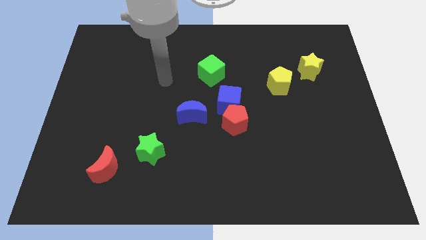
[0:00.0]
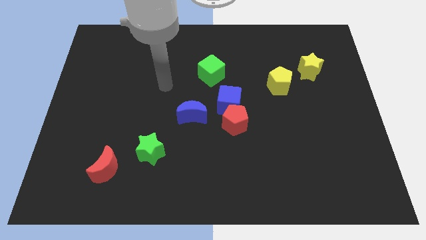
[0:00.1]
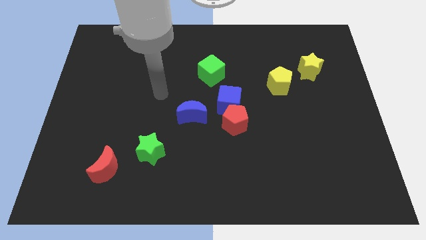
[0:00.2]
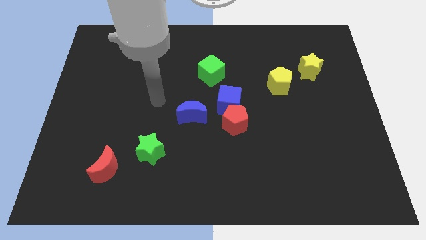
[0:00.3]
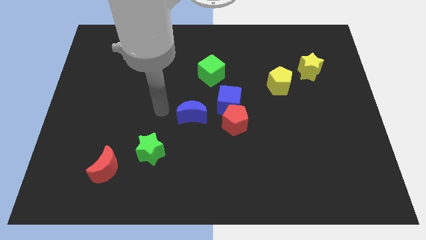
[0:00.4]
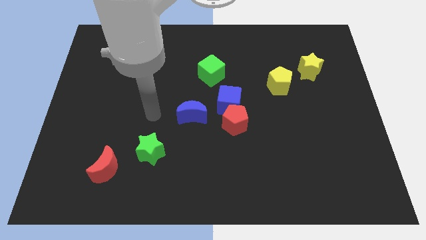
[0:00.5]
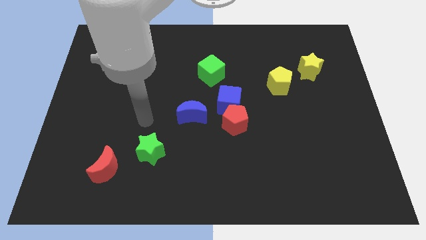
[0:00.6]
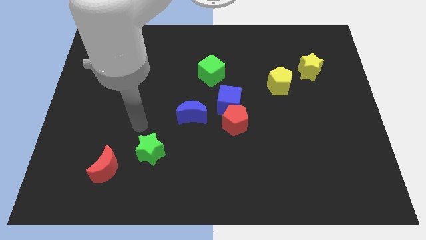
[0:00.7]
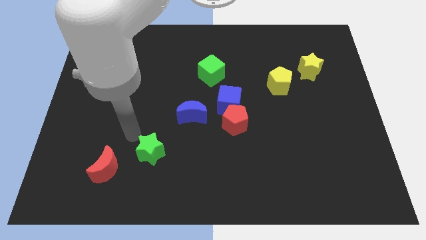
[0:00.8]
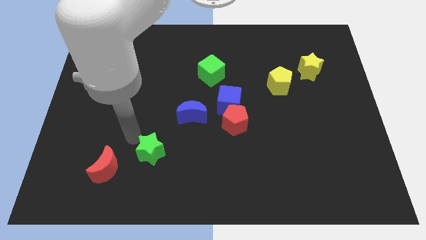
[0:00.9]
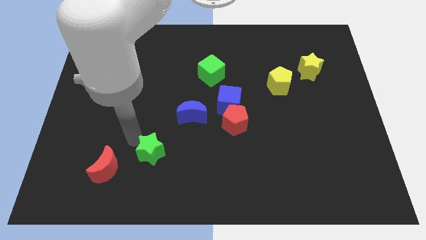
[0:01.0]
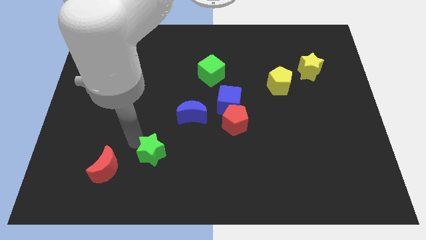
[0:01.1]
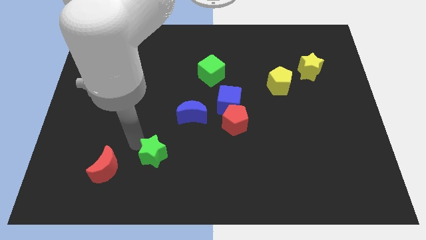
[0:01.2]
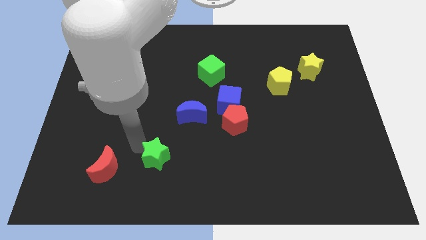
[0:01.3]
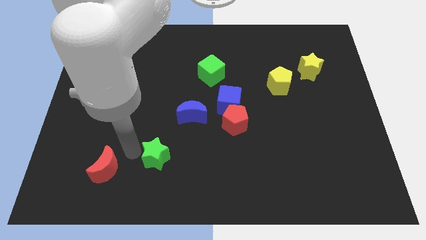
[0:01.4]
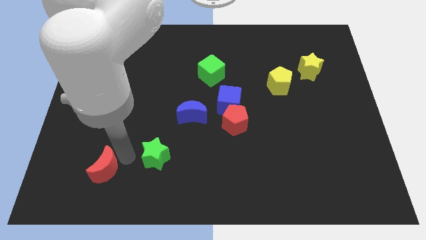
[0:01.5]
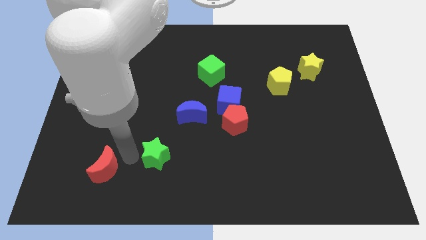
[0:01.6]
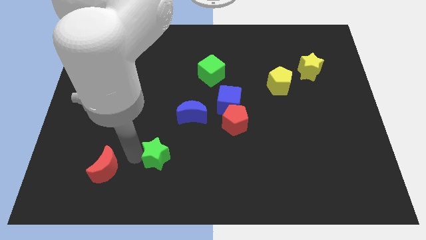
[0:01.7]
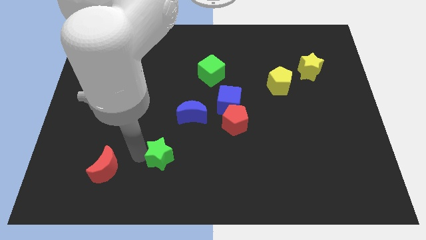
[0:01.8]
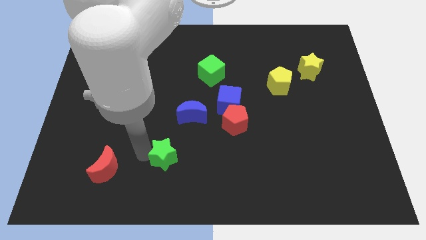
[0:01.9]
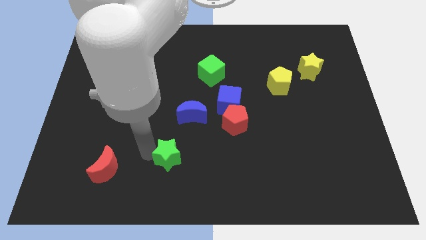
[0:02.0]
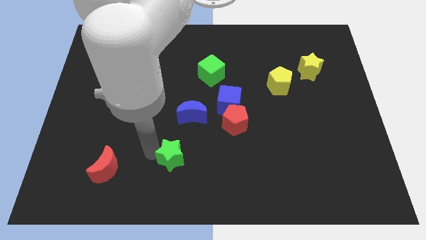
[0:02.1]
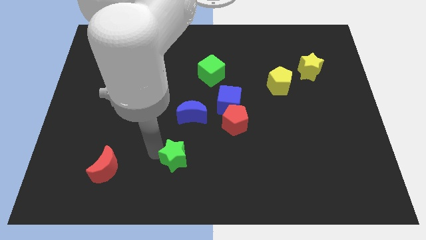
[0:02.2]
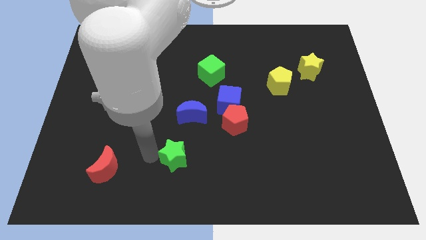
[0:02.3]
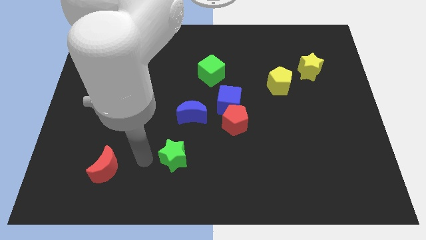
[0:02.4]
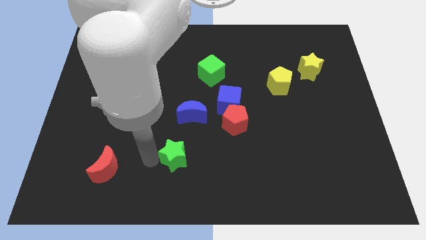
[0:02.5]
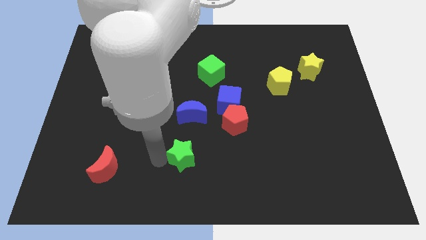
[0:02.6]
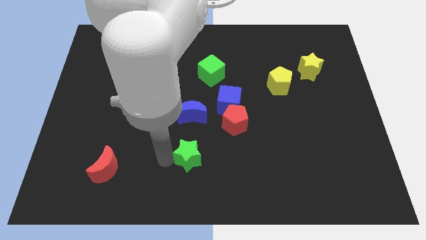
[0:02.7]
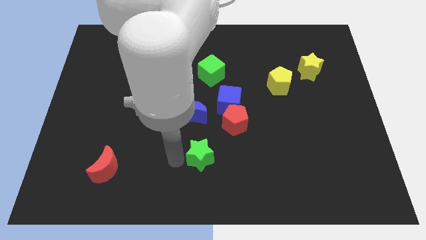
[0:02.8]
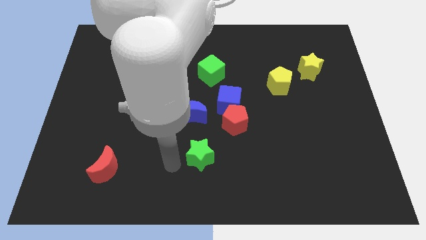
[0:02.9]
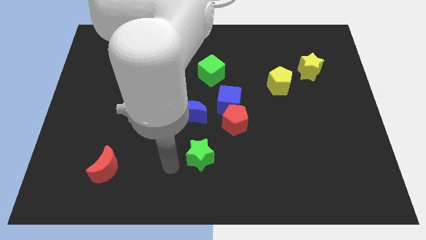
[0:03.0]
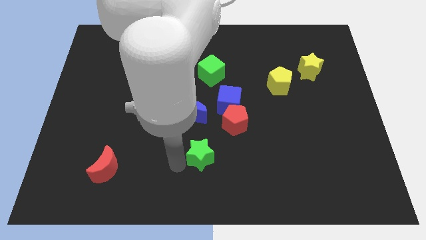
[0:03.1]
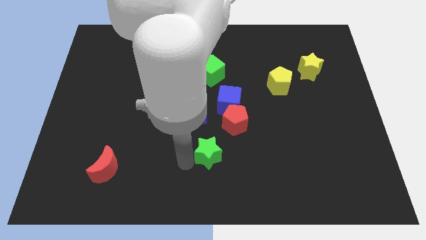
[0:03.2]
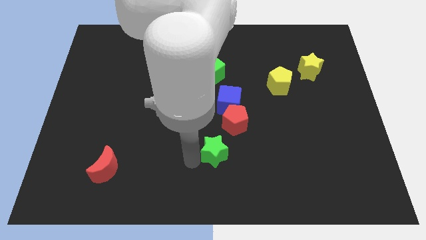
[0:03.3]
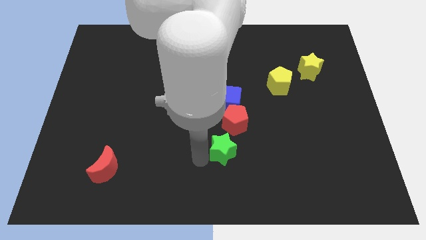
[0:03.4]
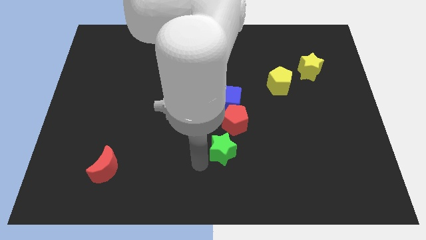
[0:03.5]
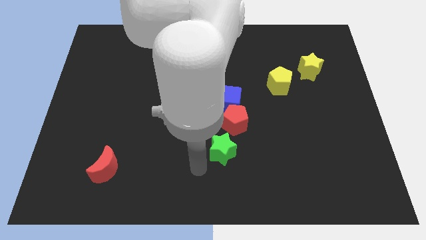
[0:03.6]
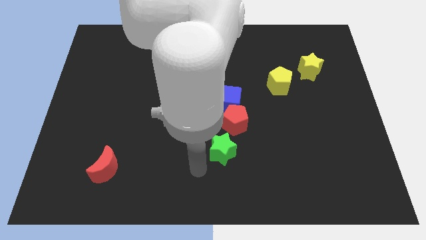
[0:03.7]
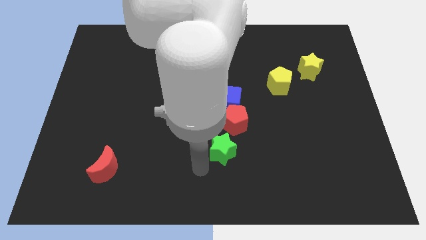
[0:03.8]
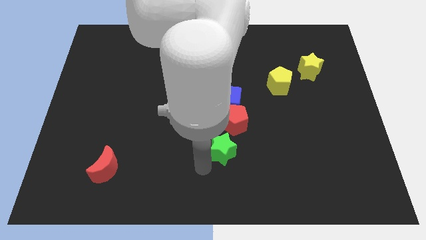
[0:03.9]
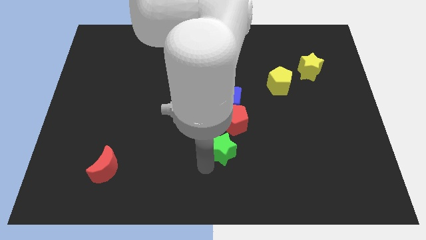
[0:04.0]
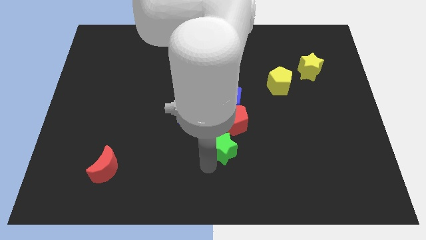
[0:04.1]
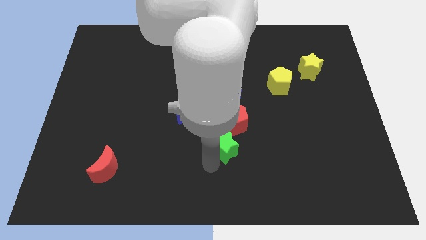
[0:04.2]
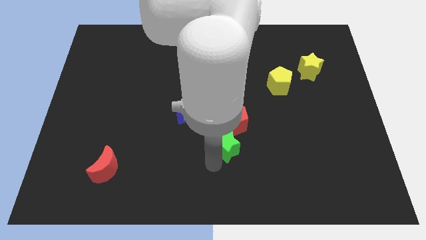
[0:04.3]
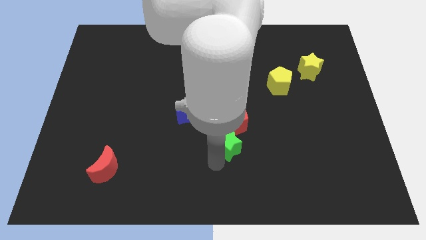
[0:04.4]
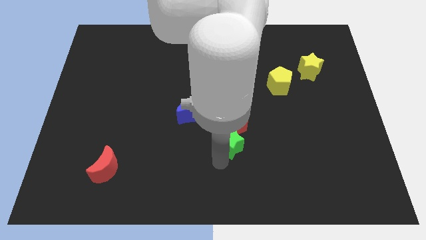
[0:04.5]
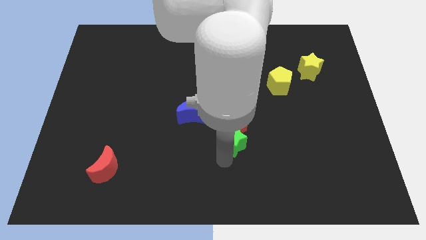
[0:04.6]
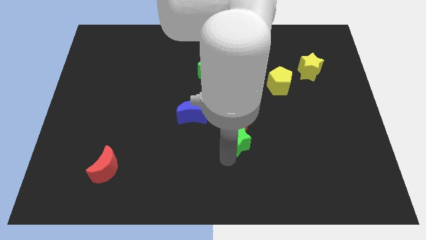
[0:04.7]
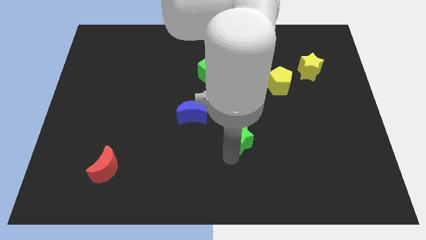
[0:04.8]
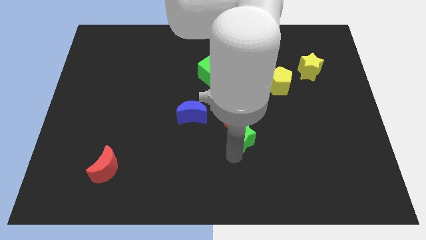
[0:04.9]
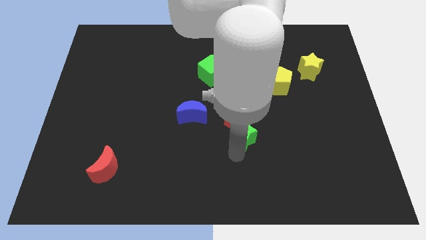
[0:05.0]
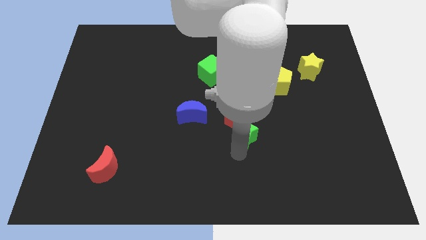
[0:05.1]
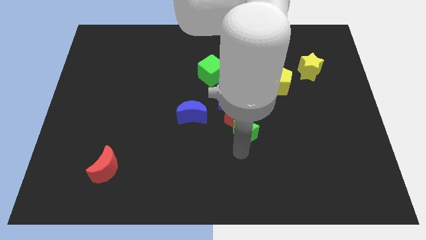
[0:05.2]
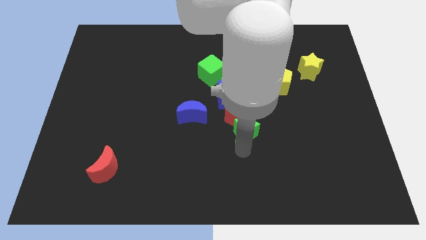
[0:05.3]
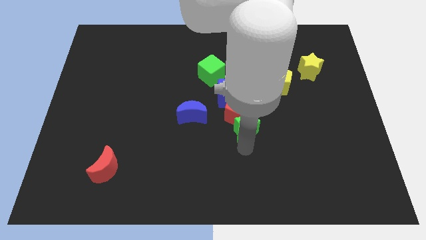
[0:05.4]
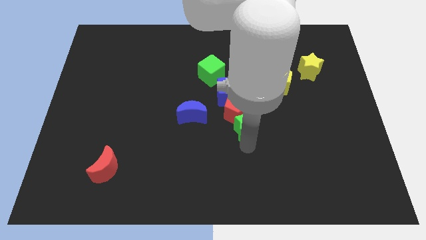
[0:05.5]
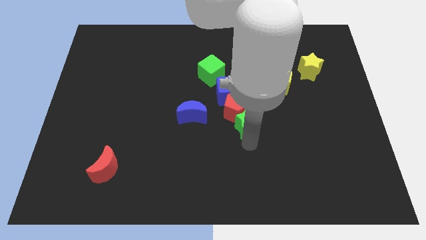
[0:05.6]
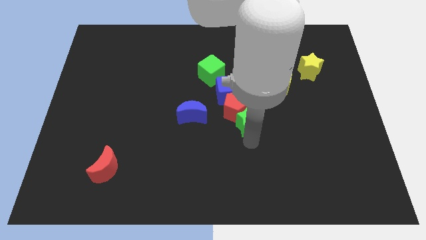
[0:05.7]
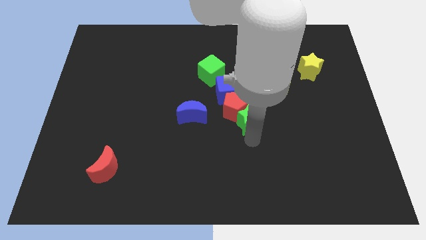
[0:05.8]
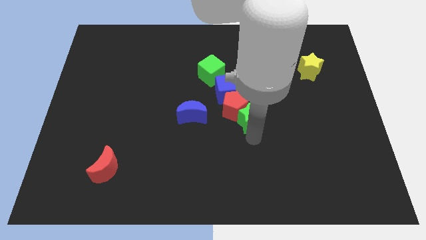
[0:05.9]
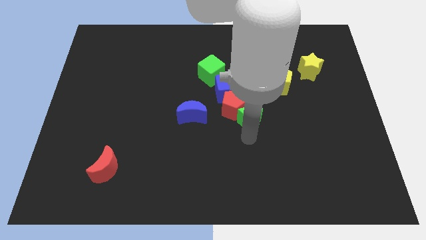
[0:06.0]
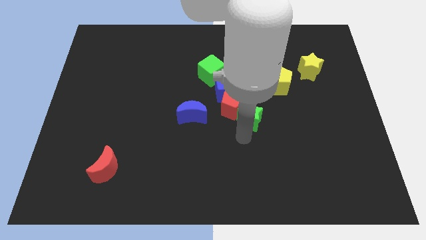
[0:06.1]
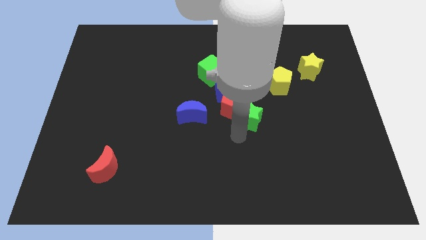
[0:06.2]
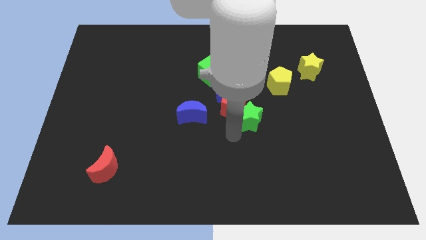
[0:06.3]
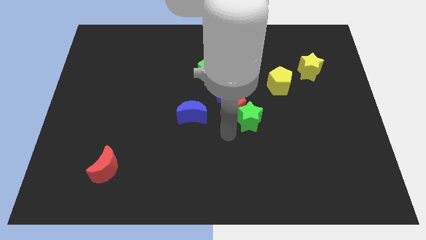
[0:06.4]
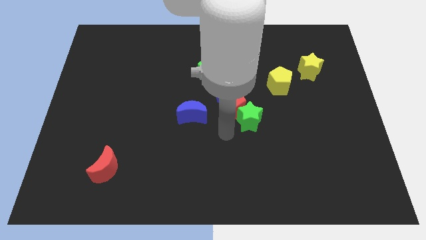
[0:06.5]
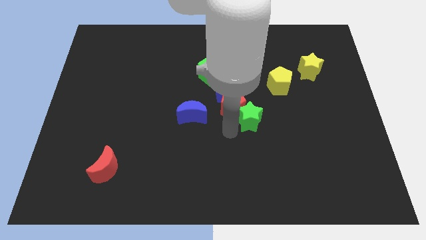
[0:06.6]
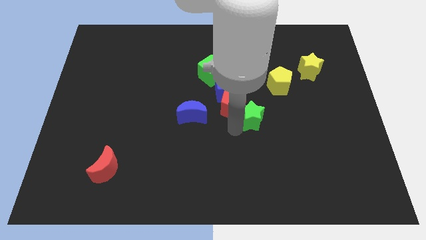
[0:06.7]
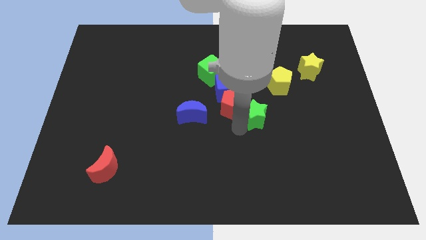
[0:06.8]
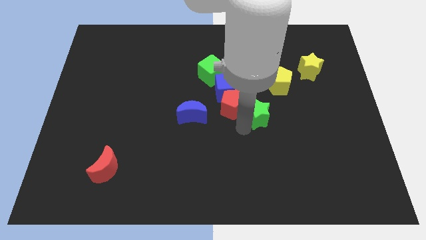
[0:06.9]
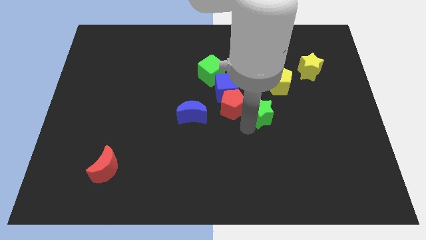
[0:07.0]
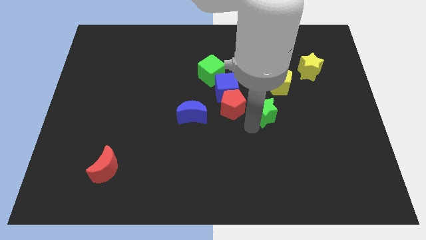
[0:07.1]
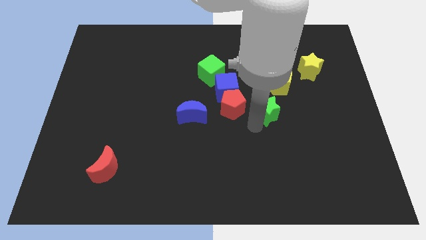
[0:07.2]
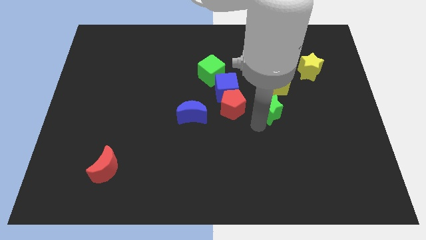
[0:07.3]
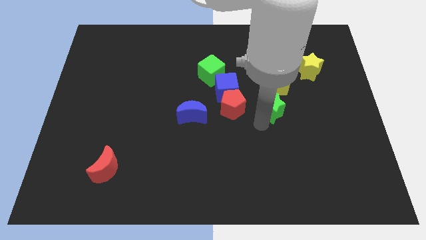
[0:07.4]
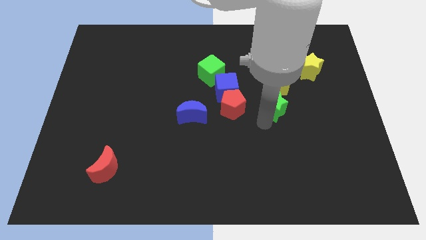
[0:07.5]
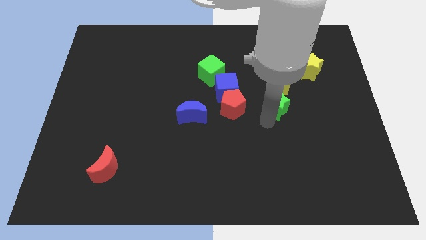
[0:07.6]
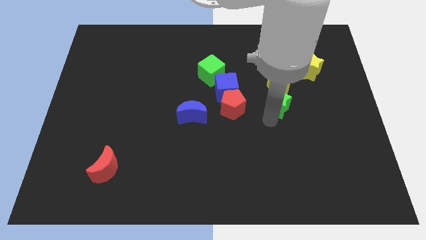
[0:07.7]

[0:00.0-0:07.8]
put the green star just right of the blue cube
